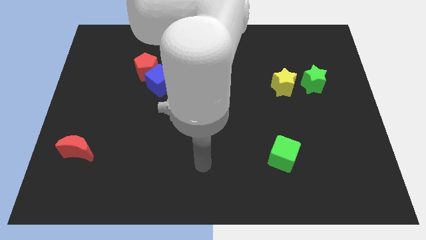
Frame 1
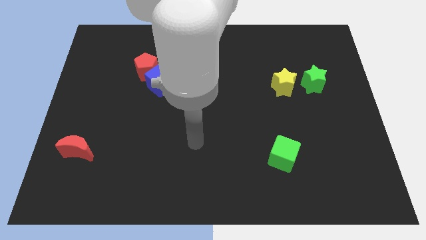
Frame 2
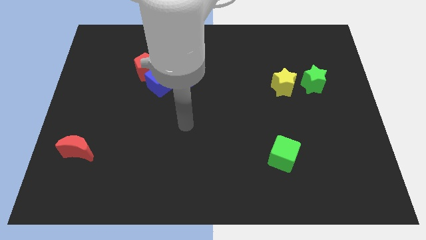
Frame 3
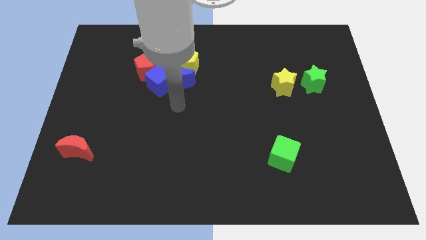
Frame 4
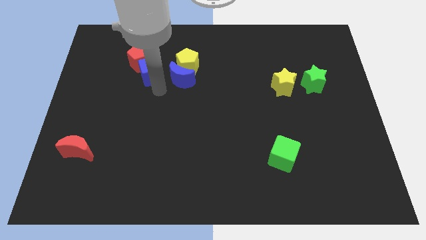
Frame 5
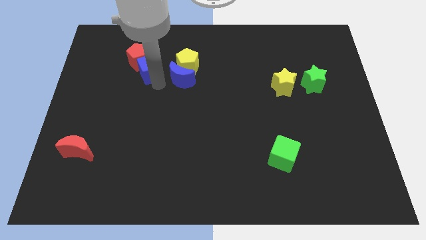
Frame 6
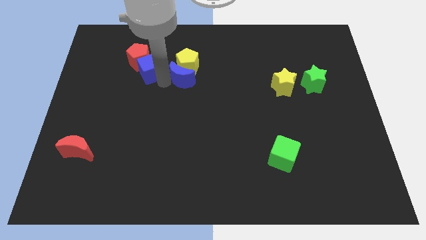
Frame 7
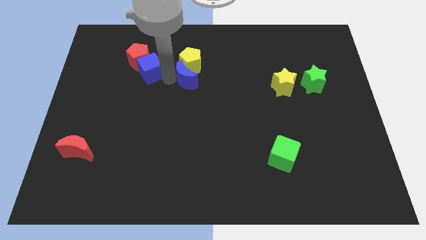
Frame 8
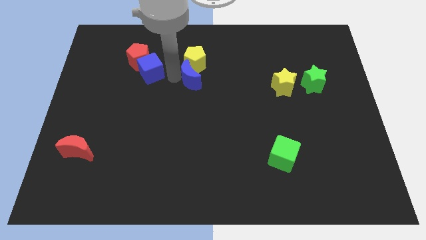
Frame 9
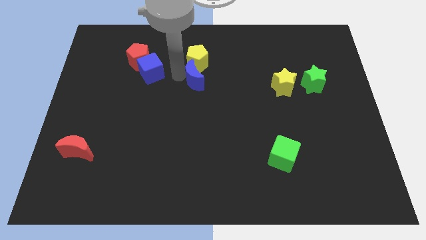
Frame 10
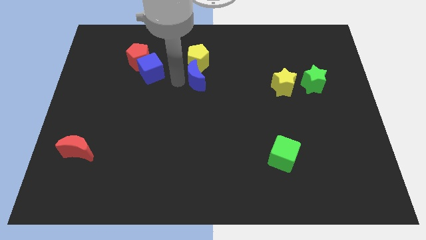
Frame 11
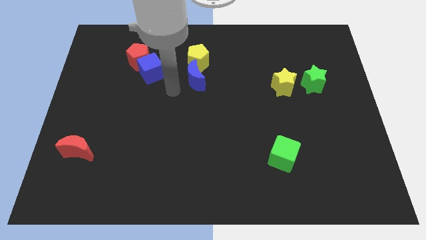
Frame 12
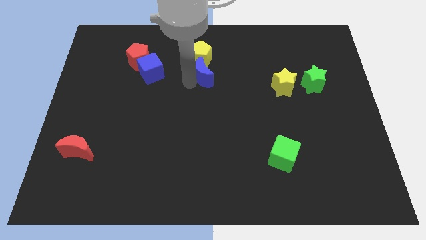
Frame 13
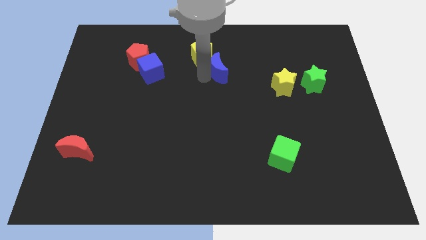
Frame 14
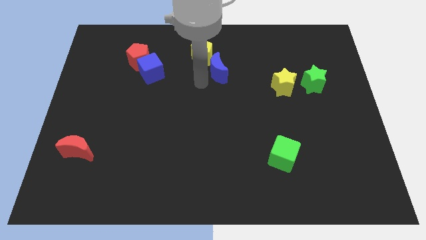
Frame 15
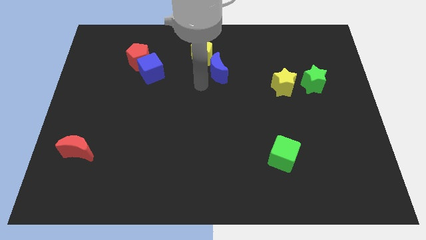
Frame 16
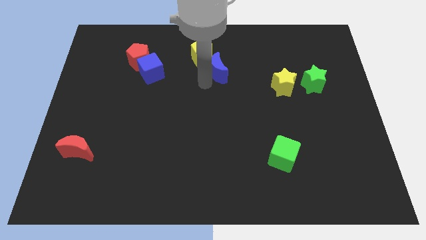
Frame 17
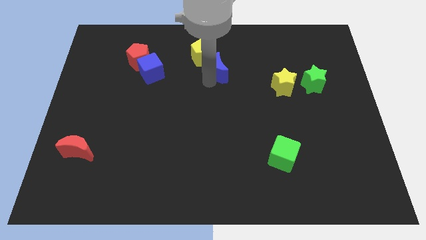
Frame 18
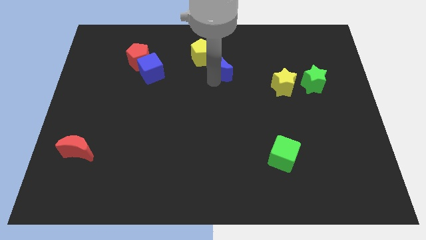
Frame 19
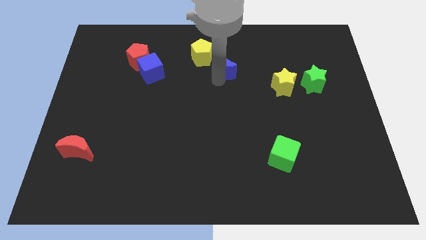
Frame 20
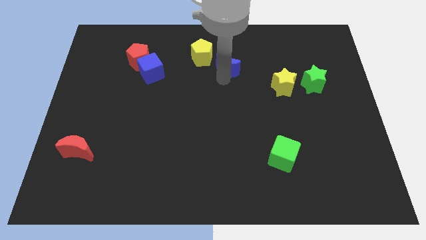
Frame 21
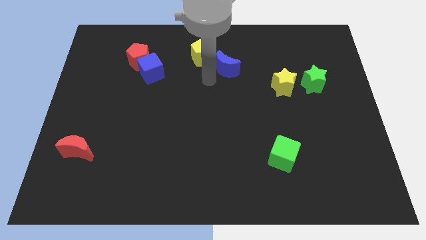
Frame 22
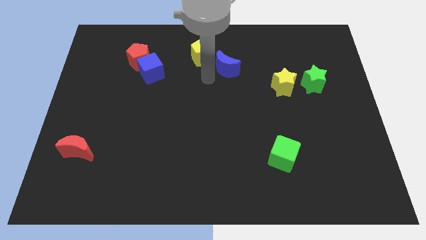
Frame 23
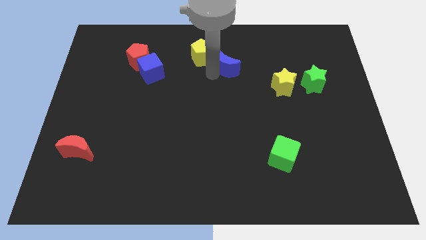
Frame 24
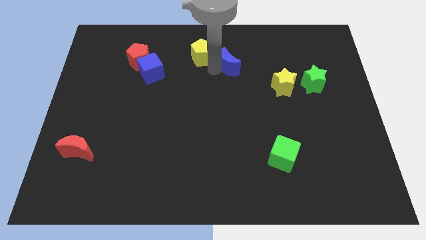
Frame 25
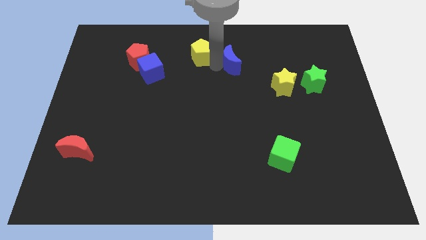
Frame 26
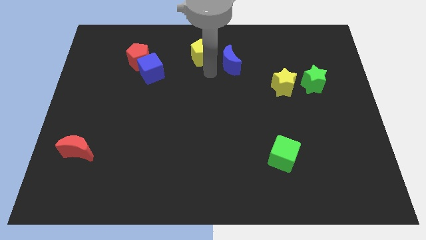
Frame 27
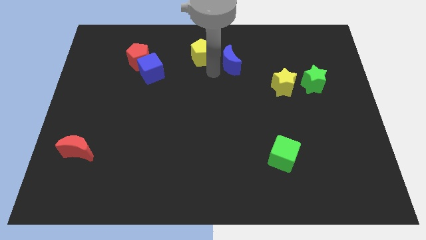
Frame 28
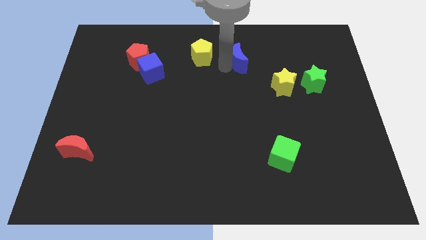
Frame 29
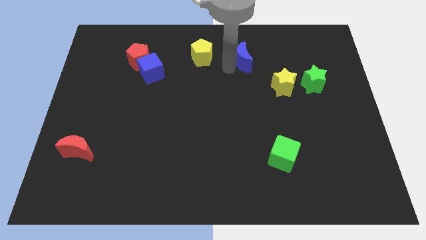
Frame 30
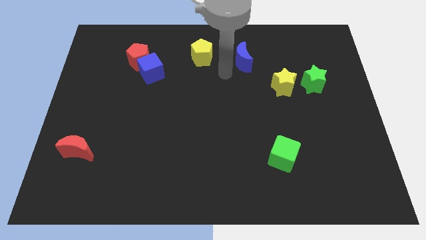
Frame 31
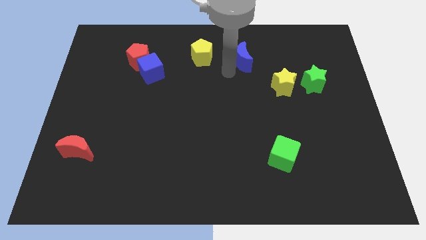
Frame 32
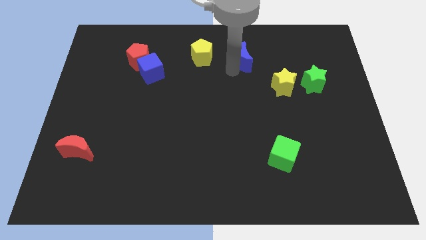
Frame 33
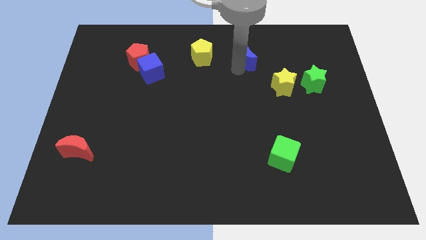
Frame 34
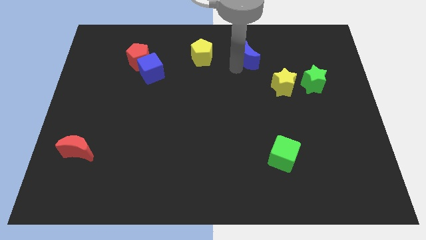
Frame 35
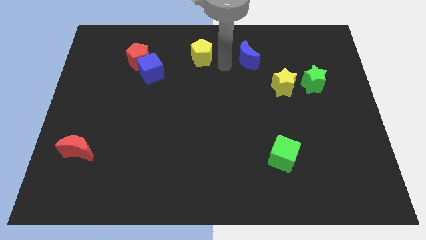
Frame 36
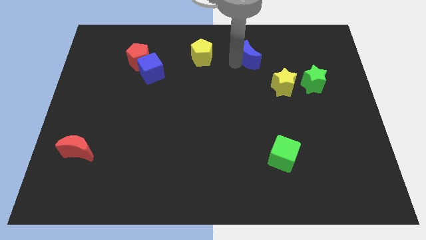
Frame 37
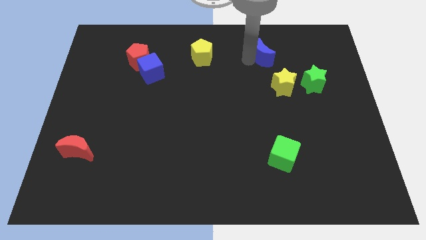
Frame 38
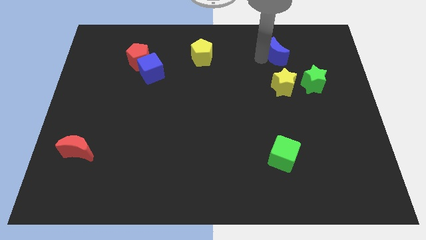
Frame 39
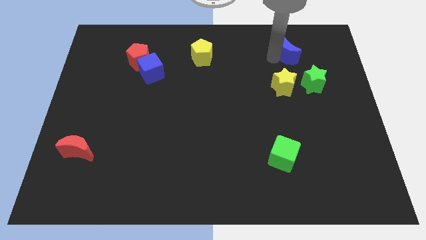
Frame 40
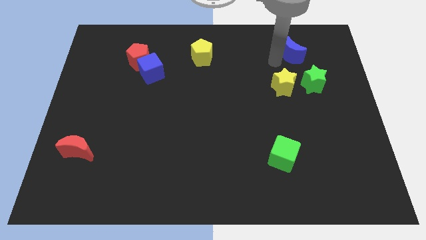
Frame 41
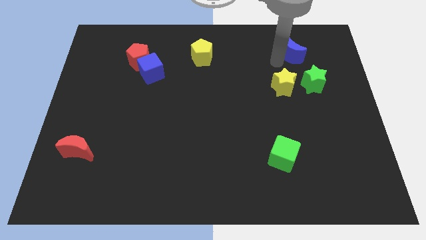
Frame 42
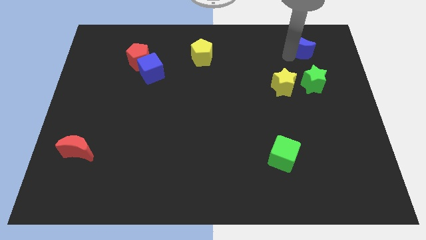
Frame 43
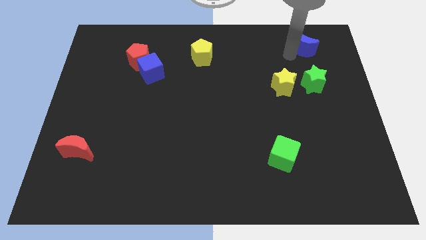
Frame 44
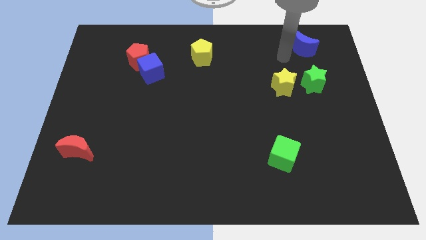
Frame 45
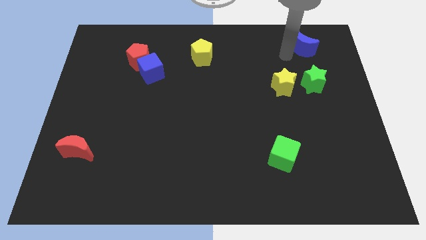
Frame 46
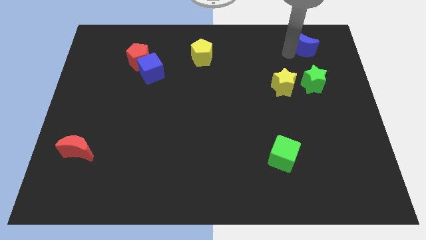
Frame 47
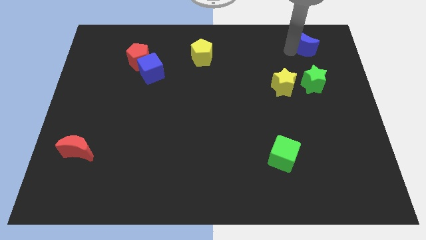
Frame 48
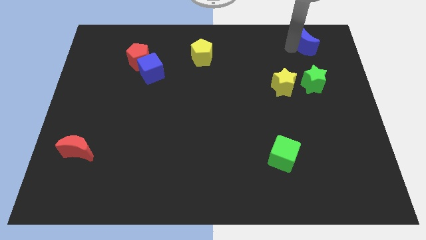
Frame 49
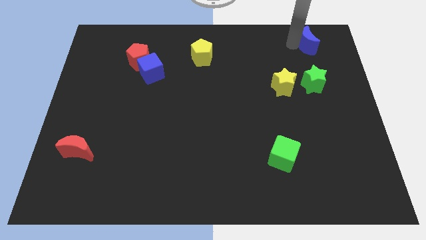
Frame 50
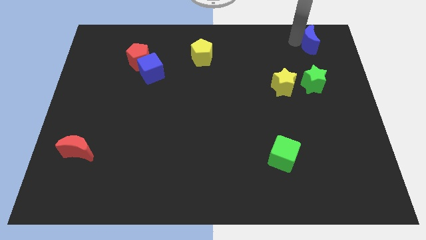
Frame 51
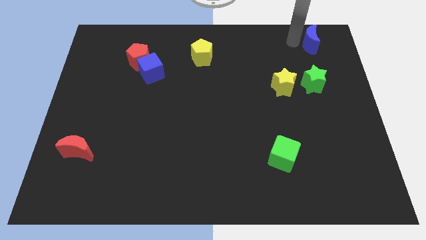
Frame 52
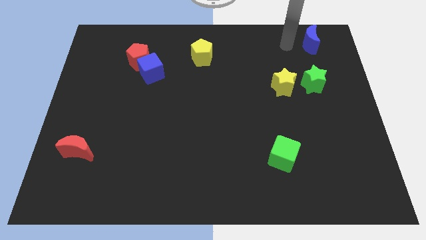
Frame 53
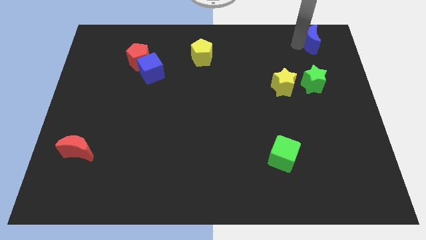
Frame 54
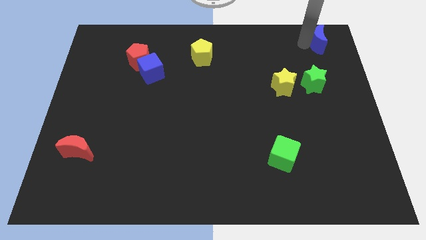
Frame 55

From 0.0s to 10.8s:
put the blue moon to the top right
